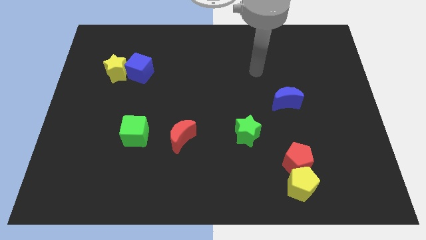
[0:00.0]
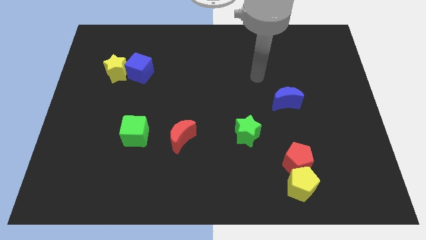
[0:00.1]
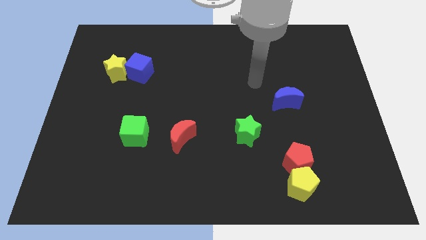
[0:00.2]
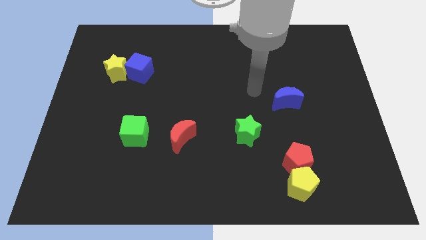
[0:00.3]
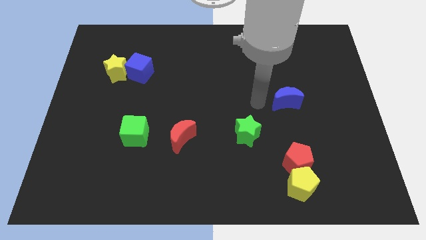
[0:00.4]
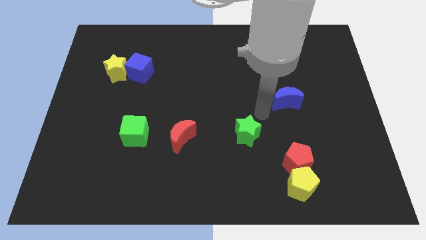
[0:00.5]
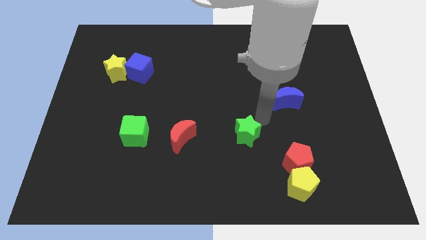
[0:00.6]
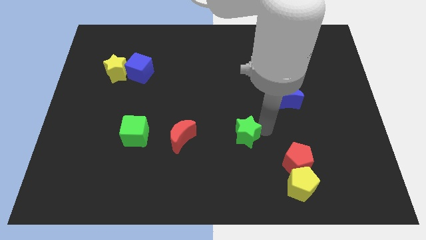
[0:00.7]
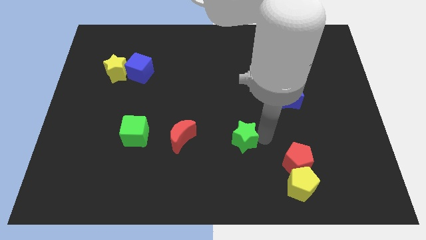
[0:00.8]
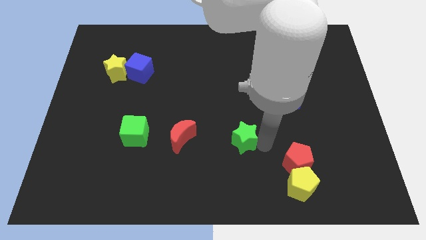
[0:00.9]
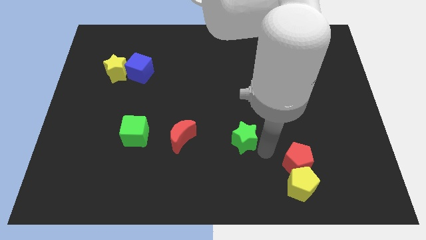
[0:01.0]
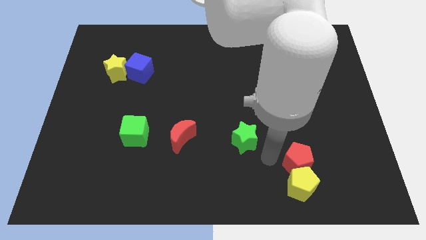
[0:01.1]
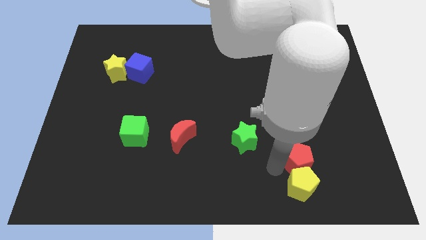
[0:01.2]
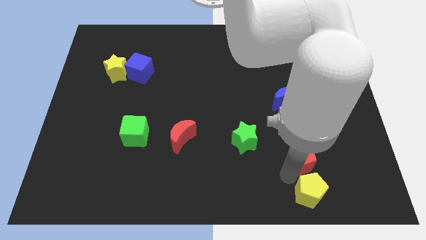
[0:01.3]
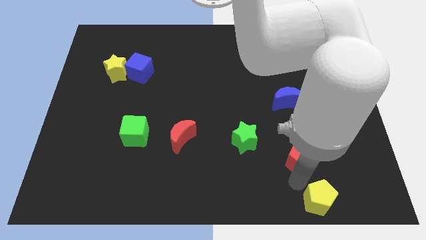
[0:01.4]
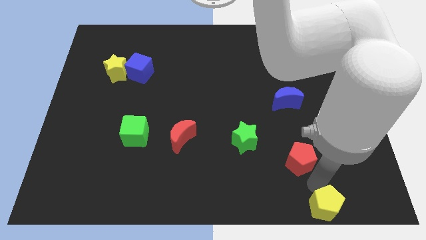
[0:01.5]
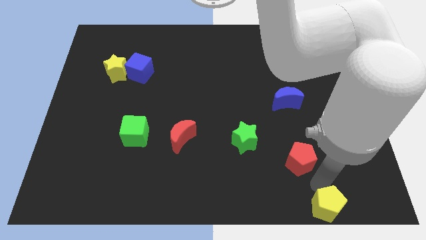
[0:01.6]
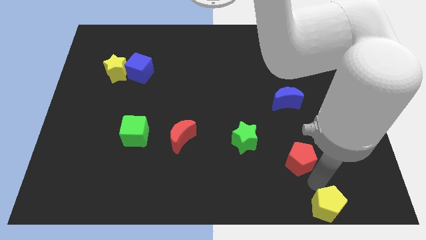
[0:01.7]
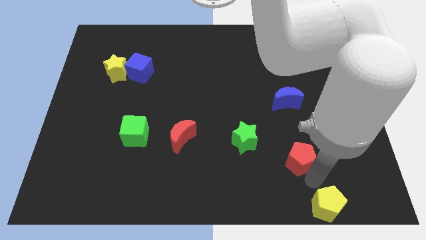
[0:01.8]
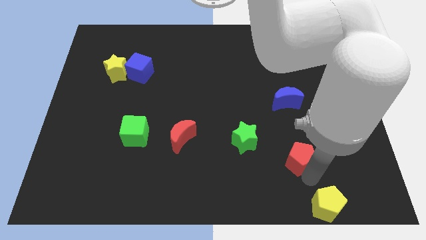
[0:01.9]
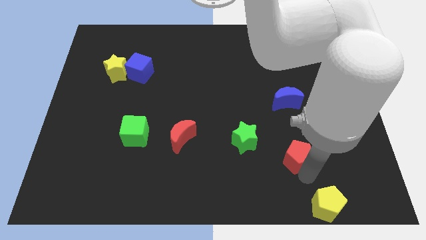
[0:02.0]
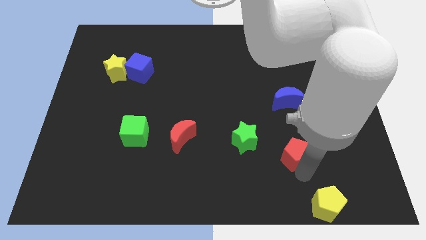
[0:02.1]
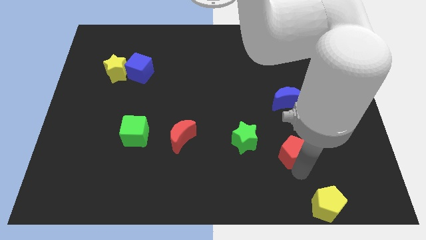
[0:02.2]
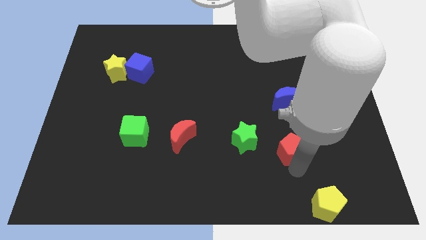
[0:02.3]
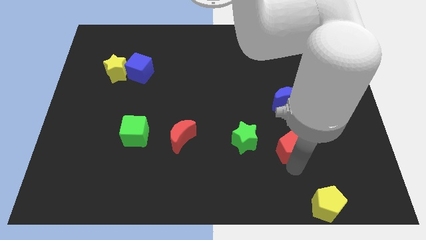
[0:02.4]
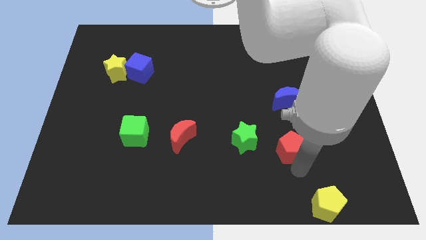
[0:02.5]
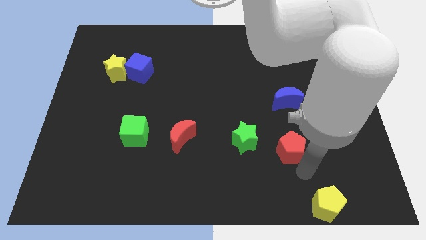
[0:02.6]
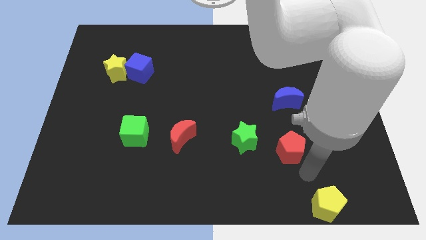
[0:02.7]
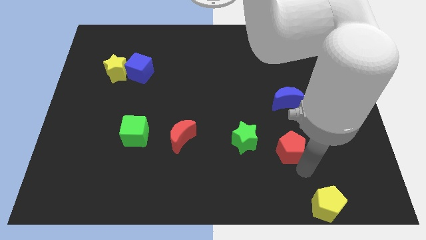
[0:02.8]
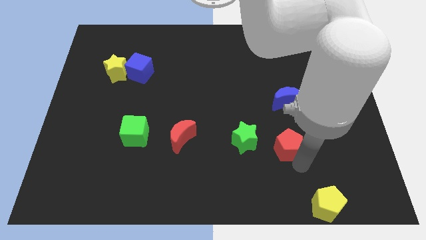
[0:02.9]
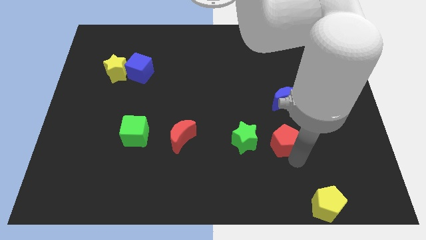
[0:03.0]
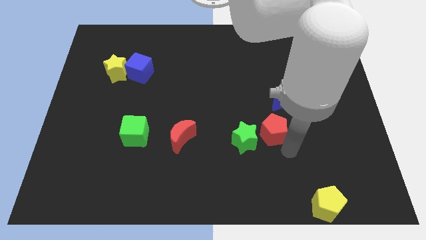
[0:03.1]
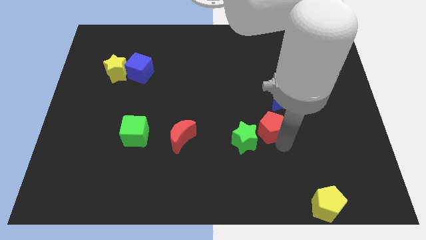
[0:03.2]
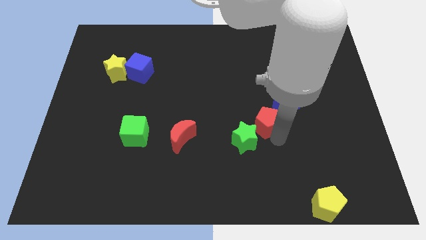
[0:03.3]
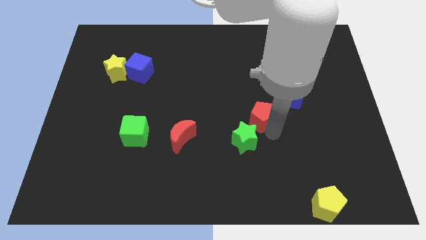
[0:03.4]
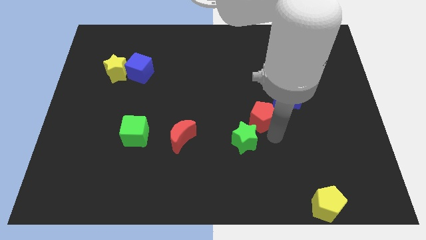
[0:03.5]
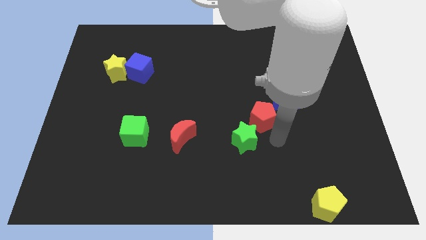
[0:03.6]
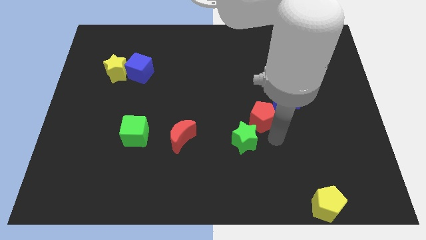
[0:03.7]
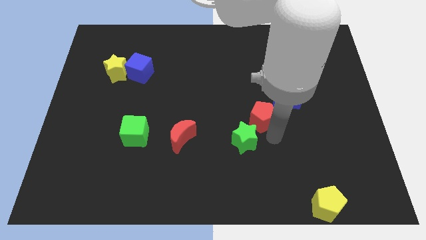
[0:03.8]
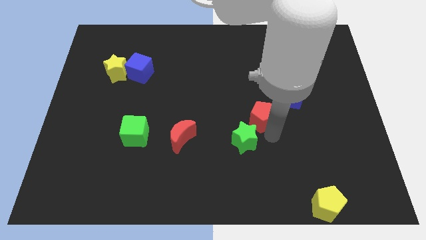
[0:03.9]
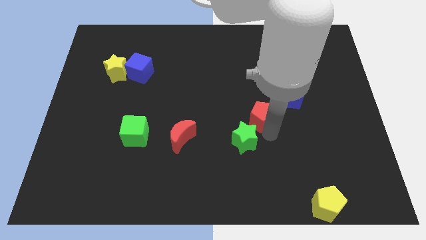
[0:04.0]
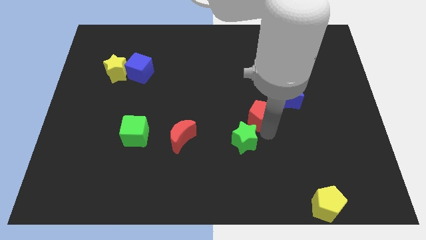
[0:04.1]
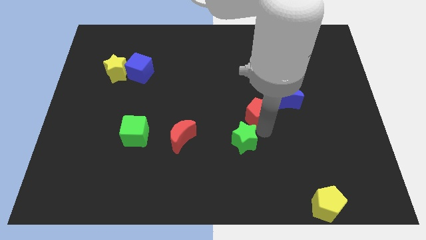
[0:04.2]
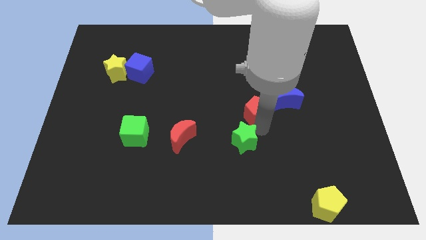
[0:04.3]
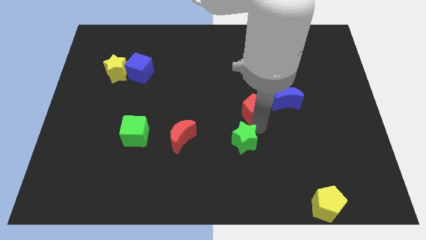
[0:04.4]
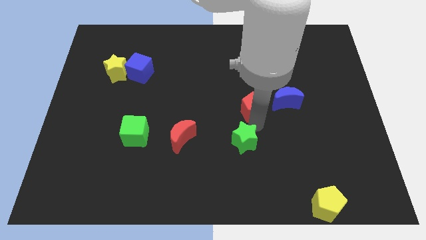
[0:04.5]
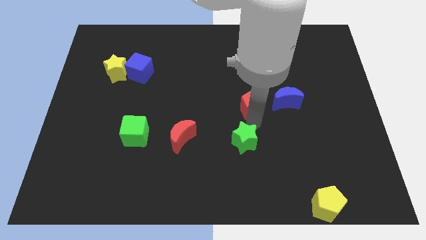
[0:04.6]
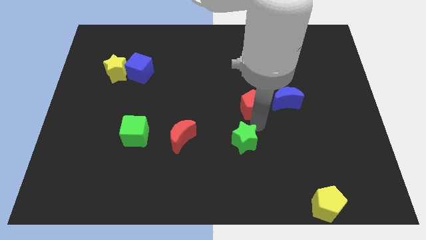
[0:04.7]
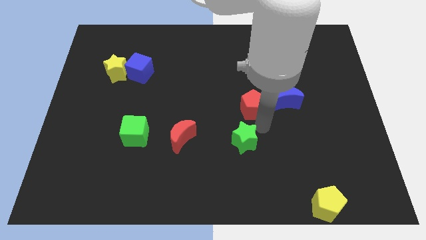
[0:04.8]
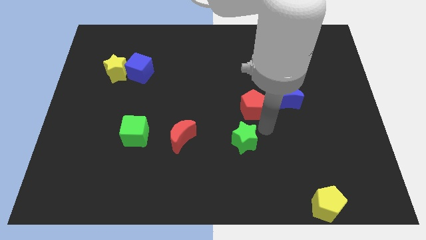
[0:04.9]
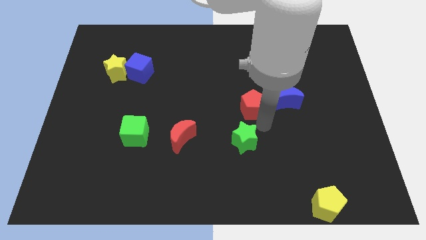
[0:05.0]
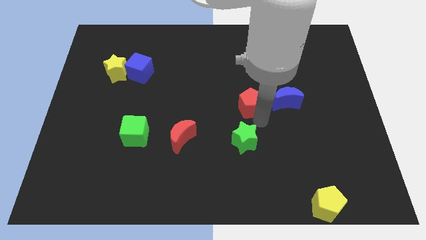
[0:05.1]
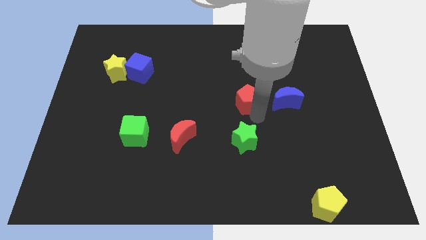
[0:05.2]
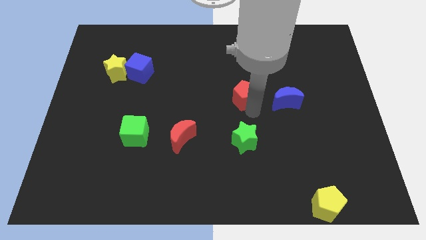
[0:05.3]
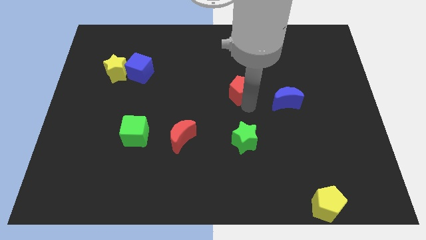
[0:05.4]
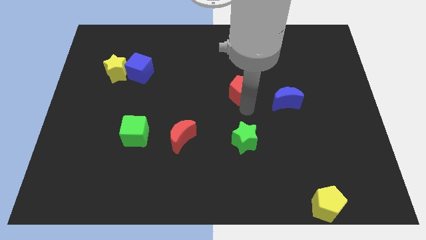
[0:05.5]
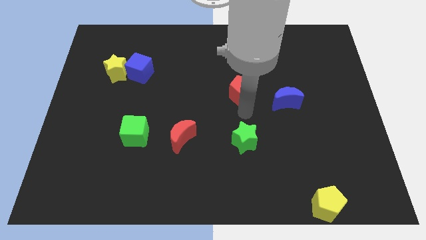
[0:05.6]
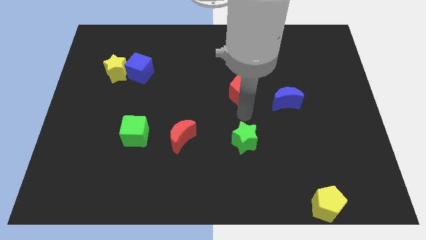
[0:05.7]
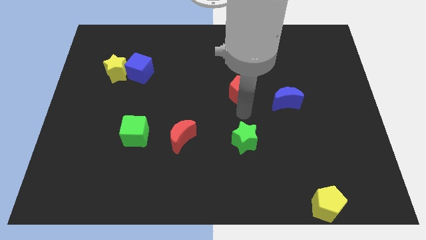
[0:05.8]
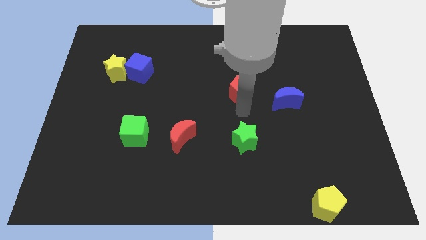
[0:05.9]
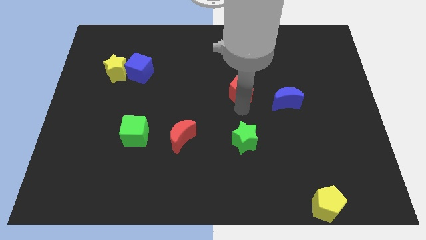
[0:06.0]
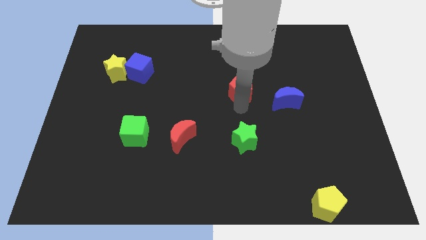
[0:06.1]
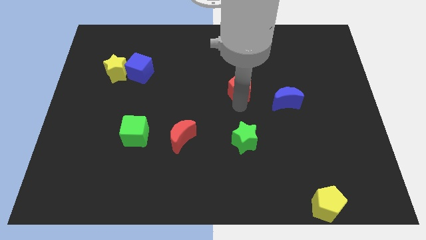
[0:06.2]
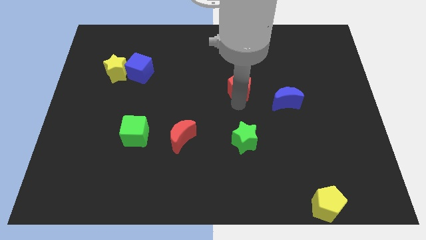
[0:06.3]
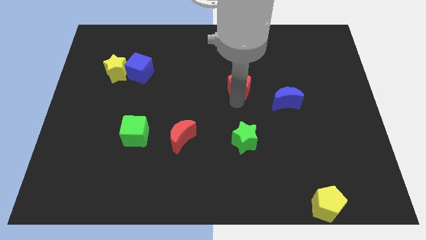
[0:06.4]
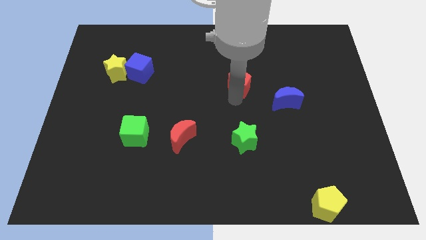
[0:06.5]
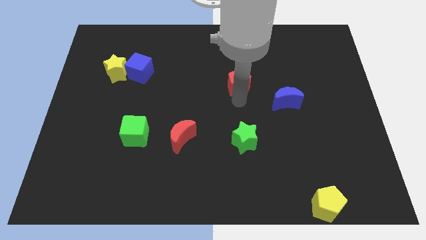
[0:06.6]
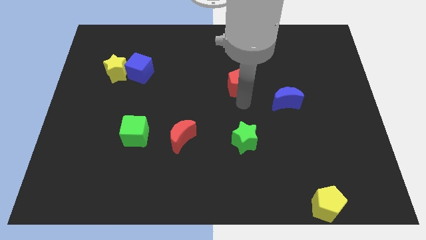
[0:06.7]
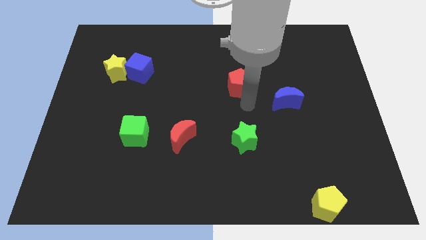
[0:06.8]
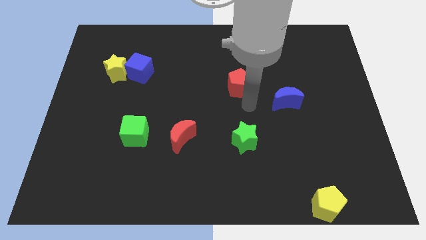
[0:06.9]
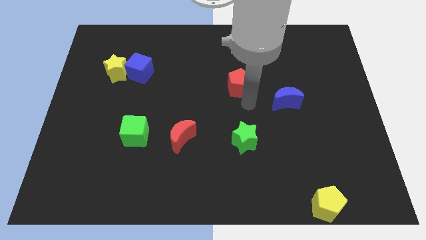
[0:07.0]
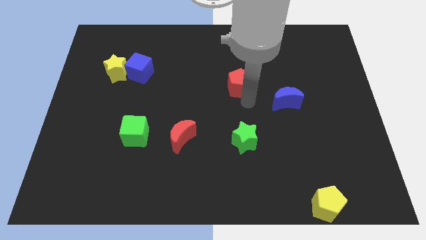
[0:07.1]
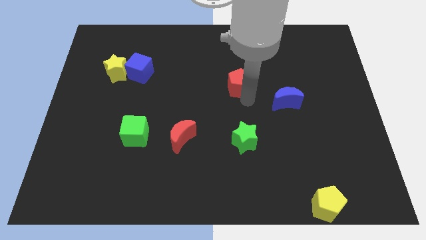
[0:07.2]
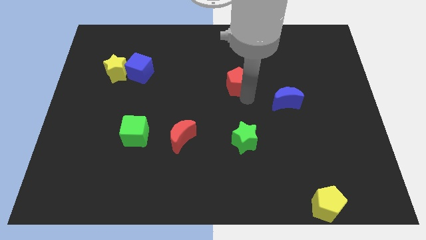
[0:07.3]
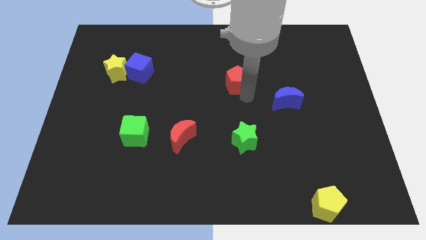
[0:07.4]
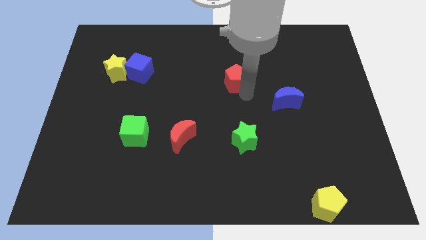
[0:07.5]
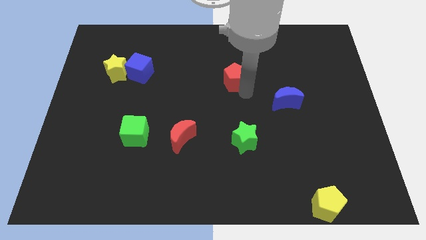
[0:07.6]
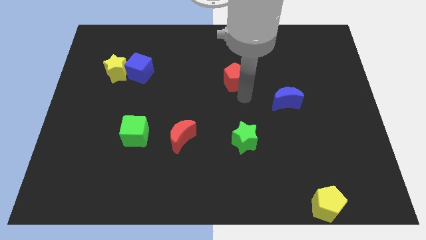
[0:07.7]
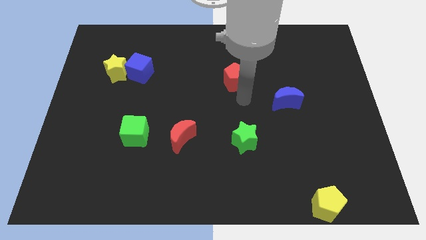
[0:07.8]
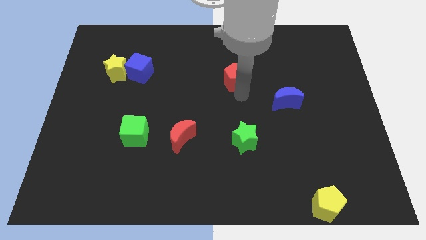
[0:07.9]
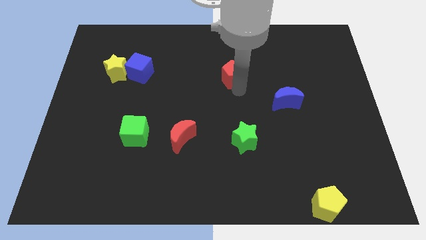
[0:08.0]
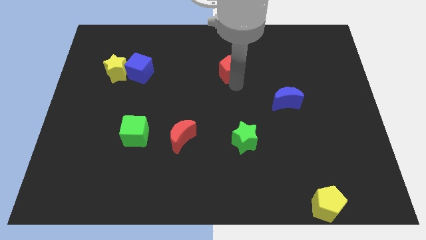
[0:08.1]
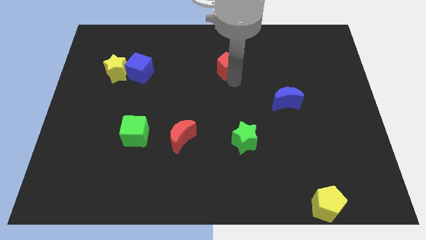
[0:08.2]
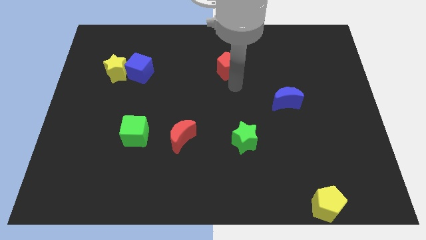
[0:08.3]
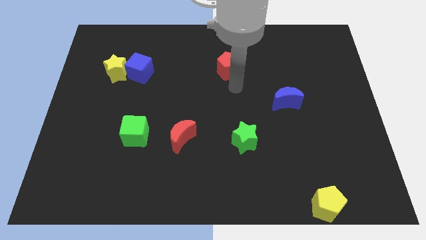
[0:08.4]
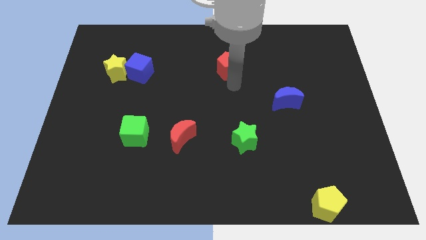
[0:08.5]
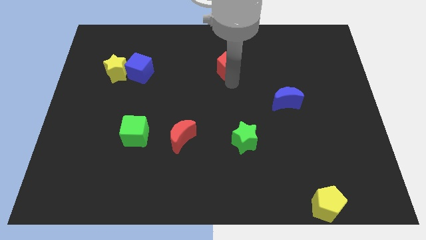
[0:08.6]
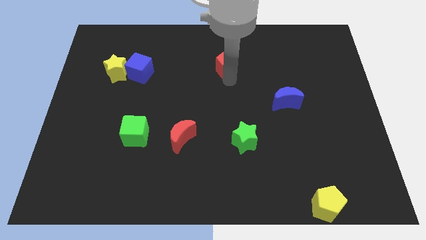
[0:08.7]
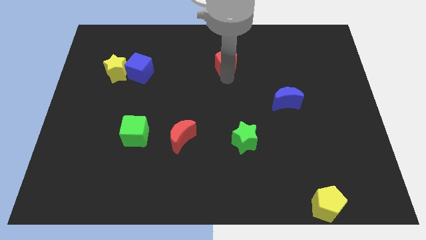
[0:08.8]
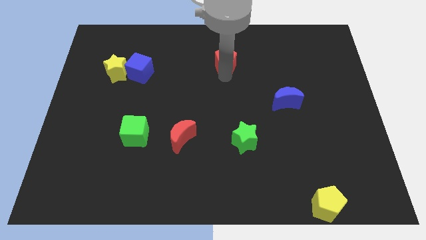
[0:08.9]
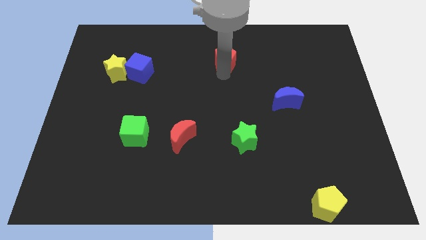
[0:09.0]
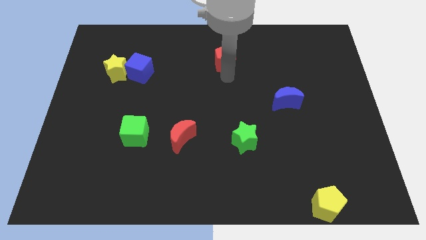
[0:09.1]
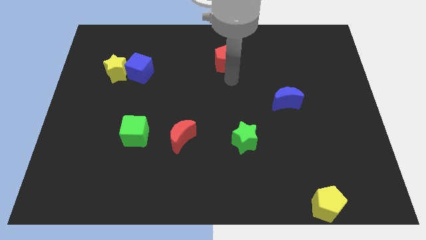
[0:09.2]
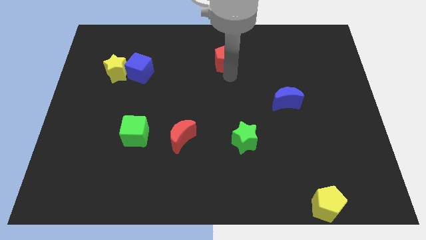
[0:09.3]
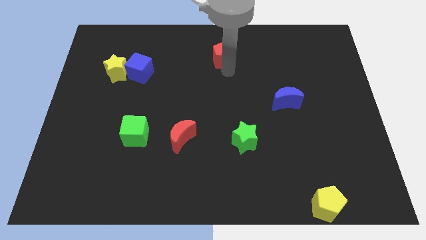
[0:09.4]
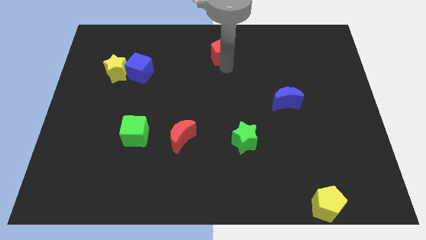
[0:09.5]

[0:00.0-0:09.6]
push the red pentagon to the top side
